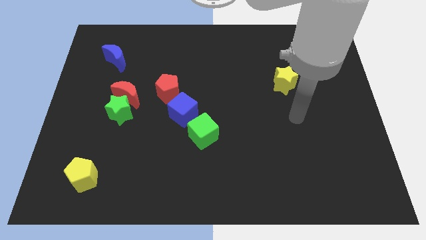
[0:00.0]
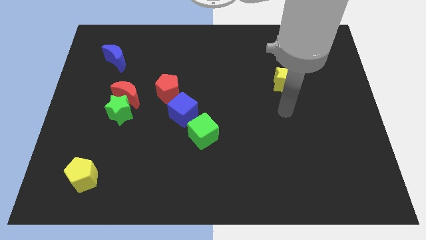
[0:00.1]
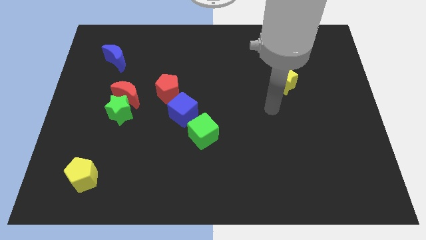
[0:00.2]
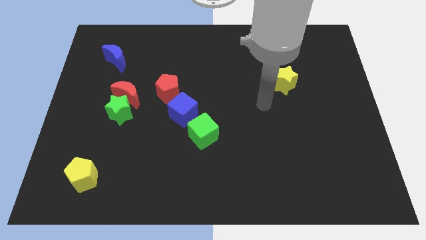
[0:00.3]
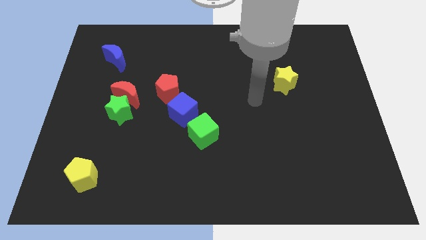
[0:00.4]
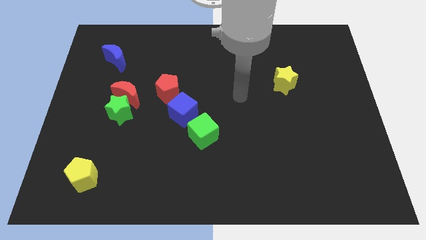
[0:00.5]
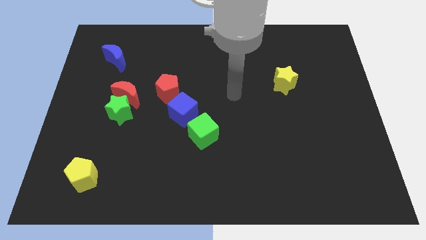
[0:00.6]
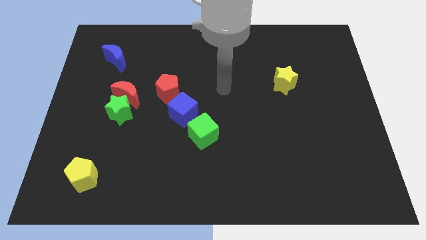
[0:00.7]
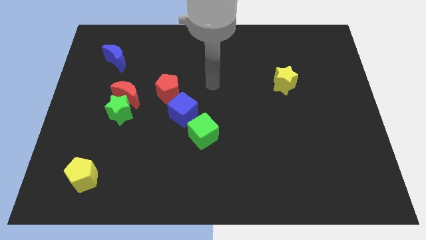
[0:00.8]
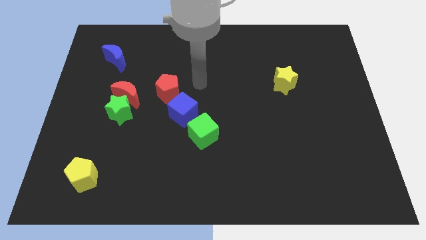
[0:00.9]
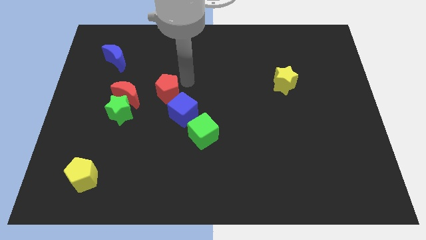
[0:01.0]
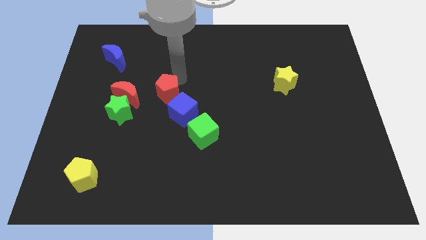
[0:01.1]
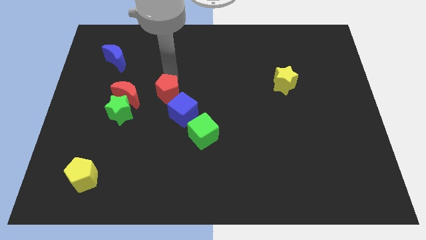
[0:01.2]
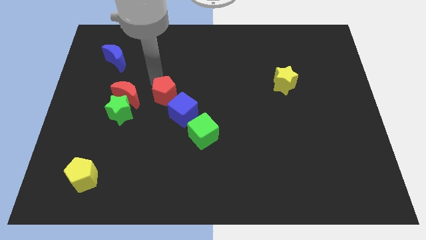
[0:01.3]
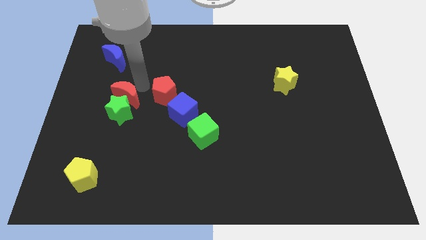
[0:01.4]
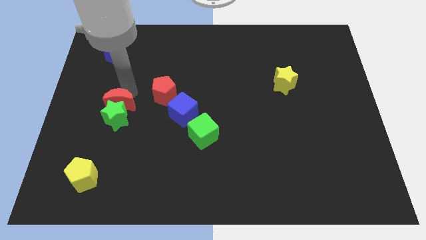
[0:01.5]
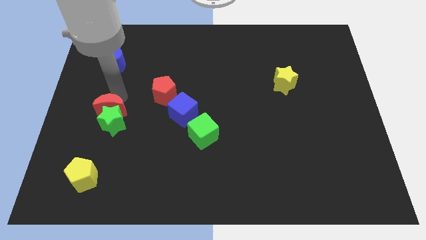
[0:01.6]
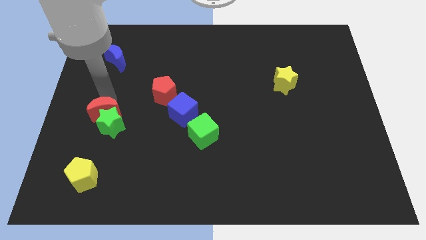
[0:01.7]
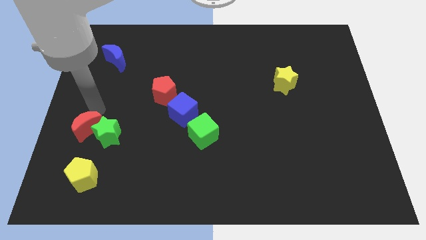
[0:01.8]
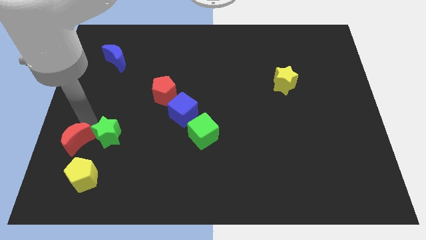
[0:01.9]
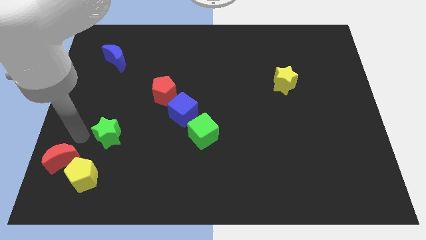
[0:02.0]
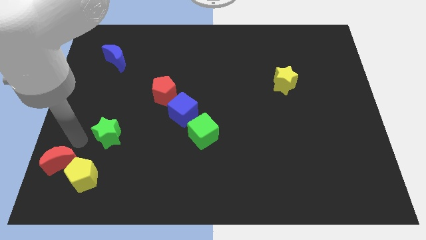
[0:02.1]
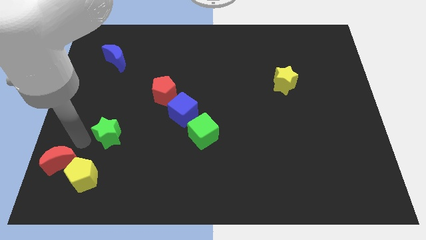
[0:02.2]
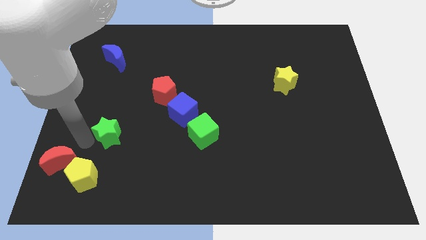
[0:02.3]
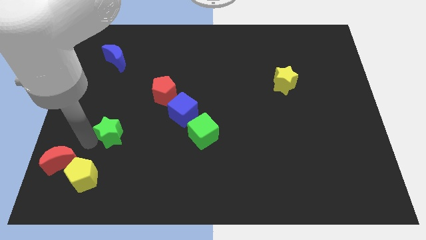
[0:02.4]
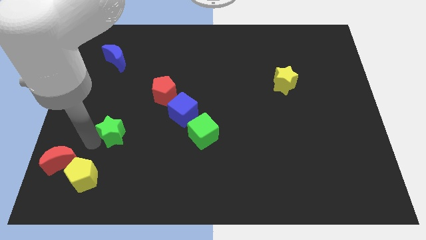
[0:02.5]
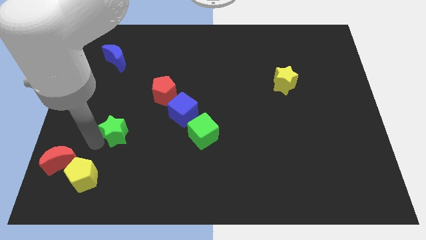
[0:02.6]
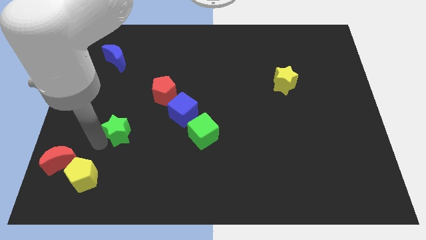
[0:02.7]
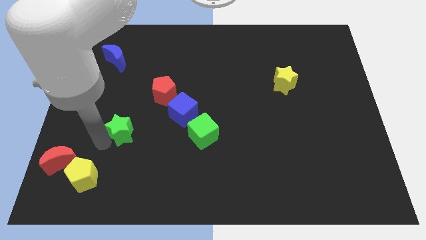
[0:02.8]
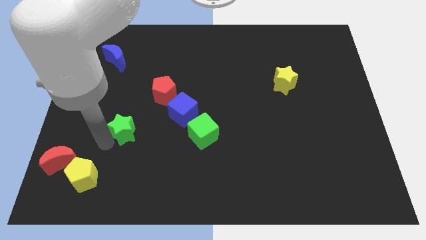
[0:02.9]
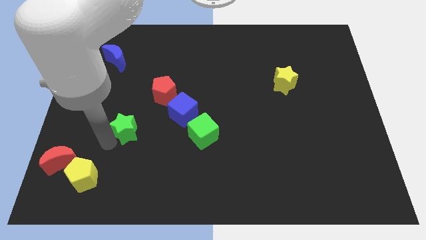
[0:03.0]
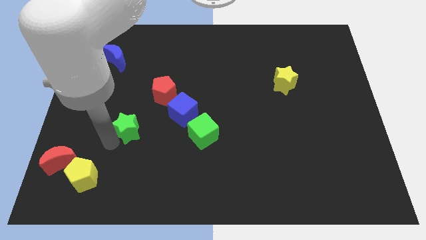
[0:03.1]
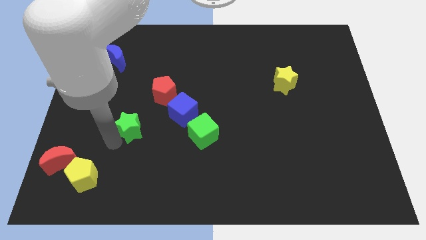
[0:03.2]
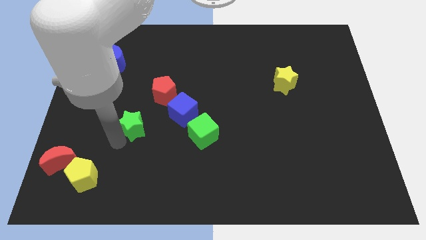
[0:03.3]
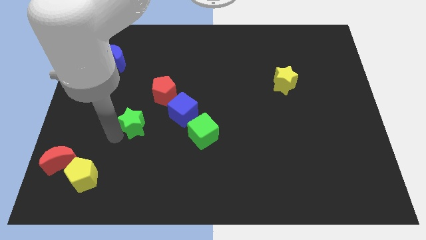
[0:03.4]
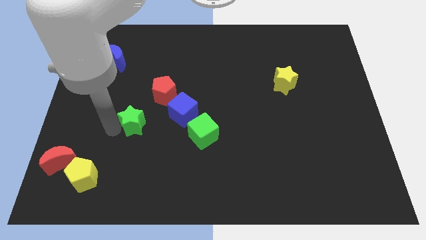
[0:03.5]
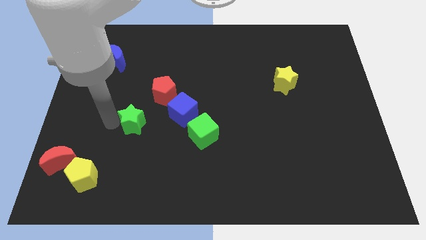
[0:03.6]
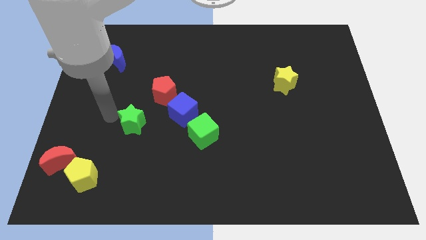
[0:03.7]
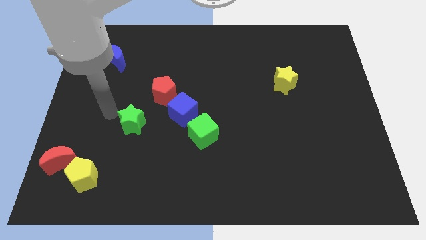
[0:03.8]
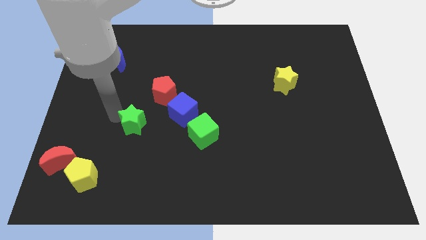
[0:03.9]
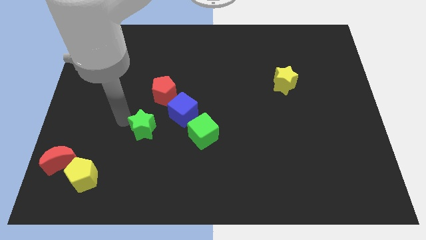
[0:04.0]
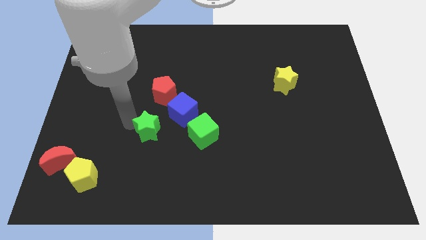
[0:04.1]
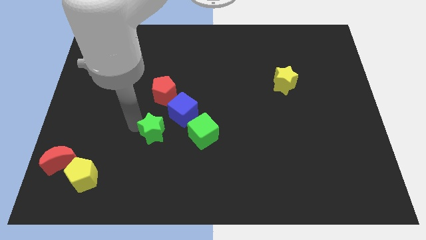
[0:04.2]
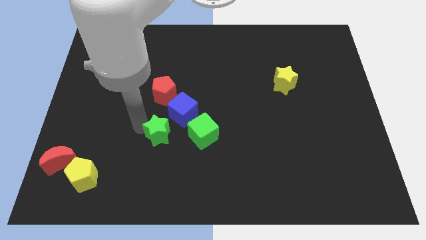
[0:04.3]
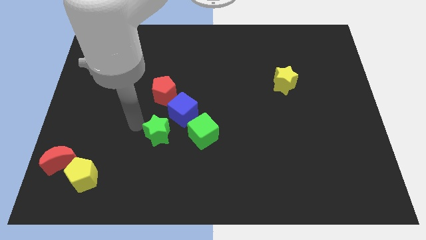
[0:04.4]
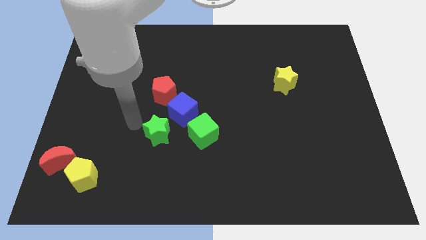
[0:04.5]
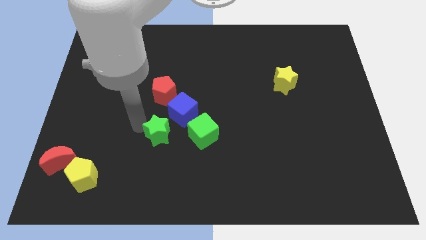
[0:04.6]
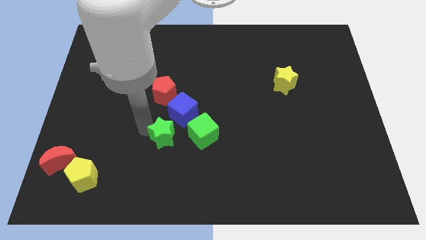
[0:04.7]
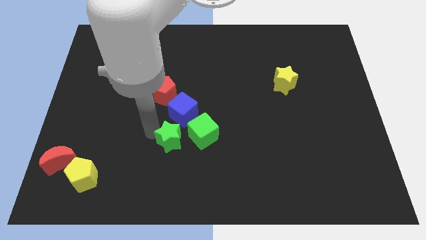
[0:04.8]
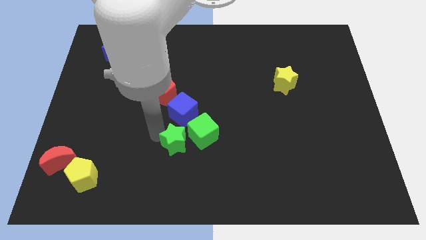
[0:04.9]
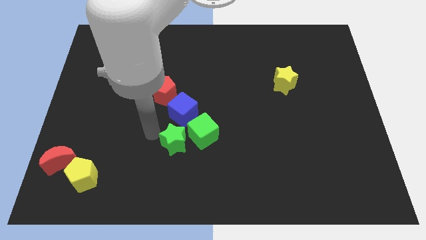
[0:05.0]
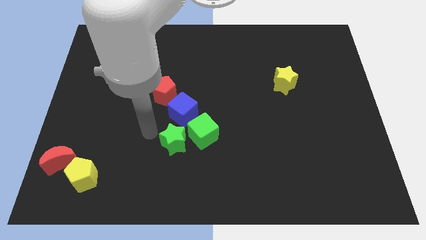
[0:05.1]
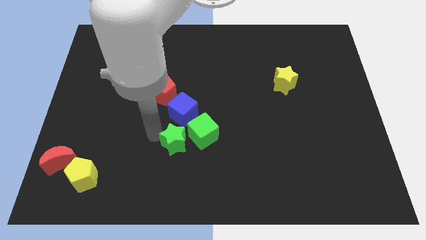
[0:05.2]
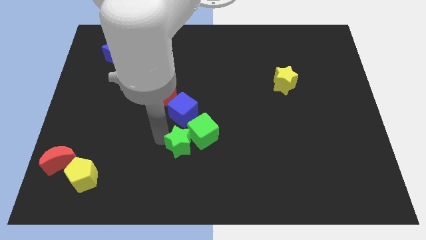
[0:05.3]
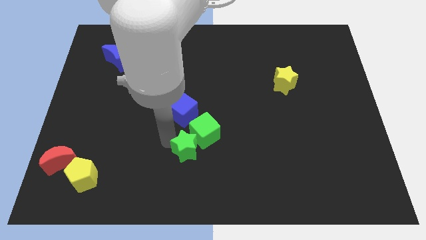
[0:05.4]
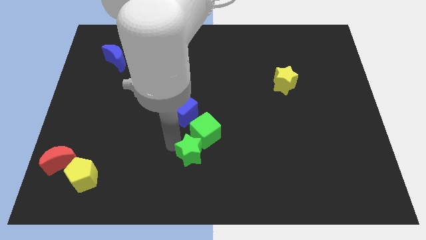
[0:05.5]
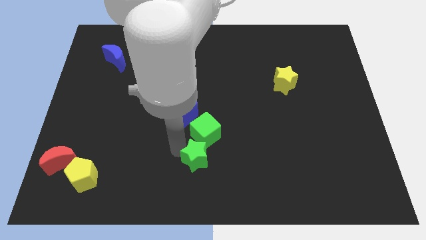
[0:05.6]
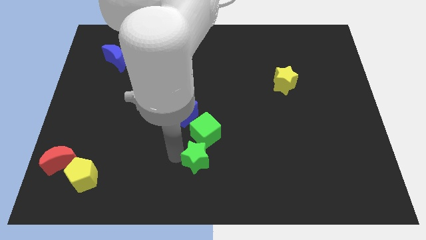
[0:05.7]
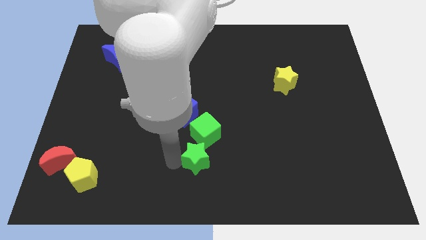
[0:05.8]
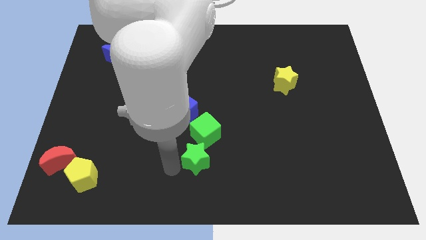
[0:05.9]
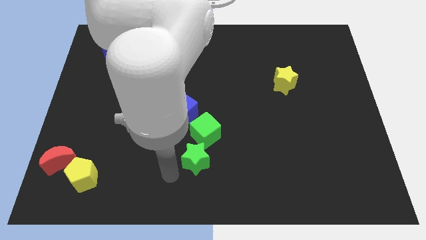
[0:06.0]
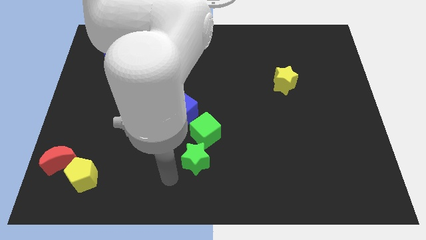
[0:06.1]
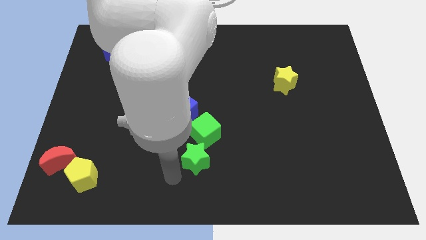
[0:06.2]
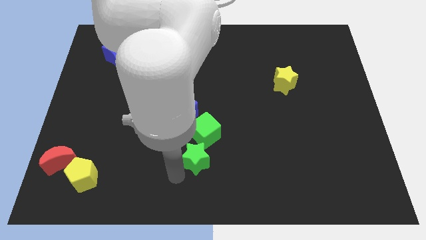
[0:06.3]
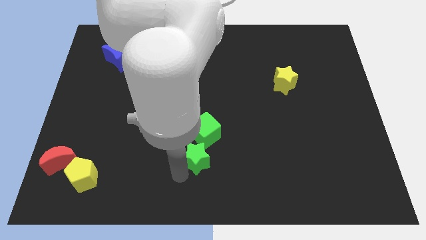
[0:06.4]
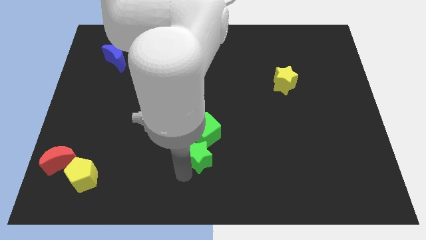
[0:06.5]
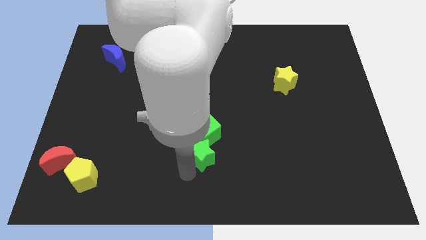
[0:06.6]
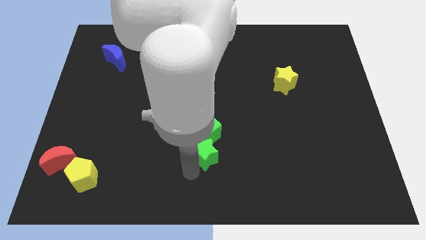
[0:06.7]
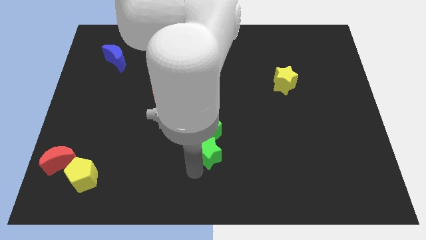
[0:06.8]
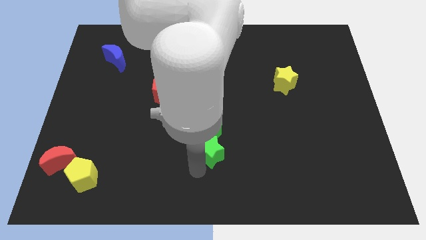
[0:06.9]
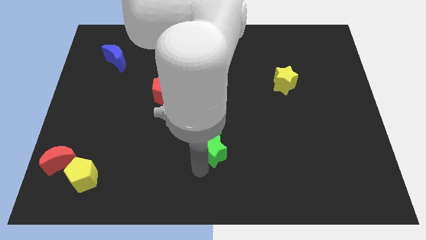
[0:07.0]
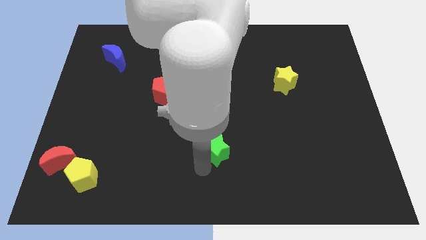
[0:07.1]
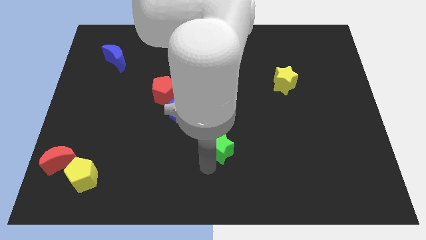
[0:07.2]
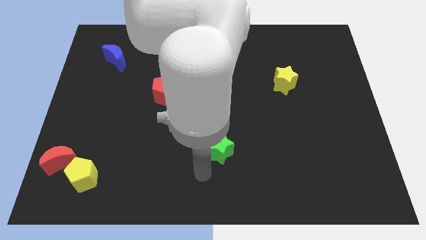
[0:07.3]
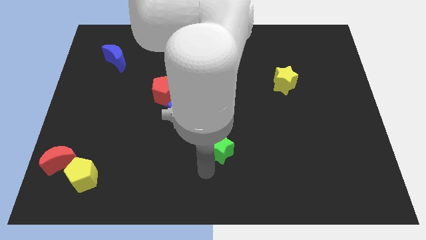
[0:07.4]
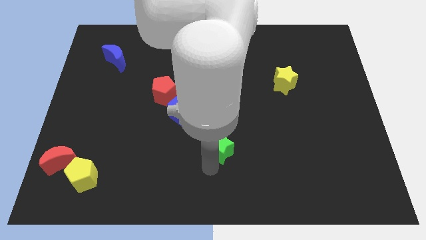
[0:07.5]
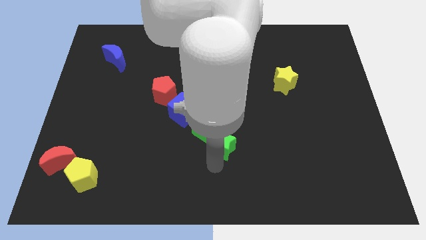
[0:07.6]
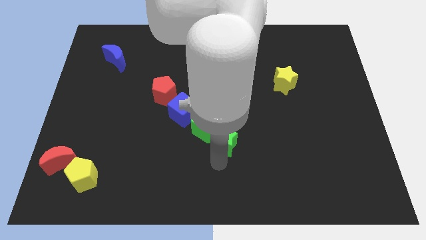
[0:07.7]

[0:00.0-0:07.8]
push the green star to the right
